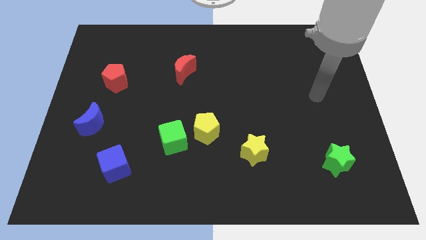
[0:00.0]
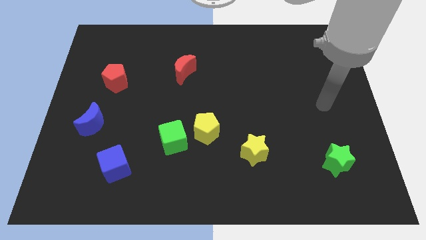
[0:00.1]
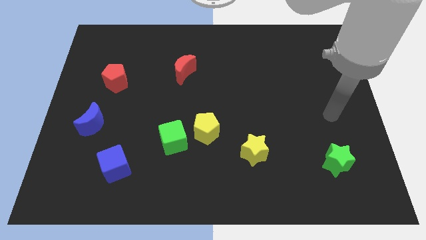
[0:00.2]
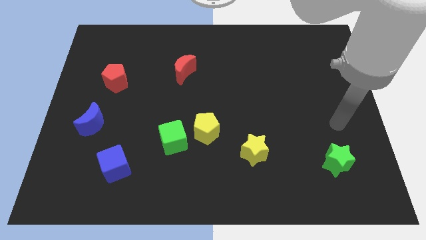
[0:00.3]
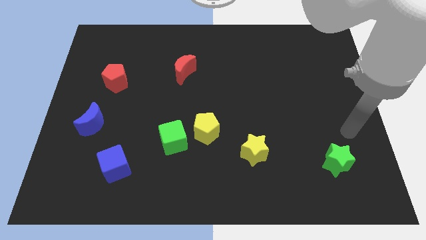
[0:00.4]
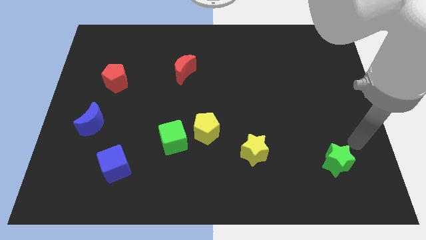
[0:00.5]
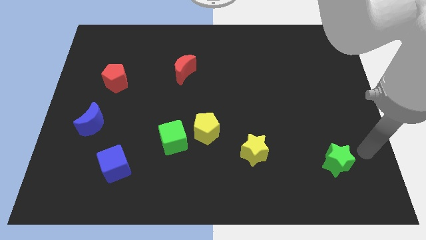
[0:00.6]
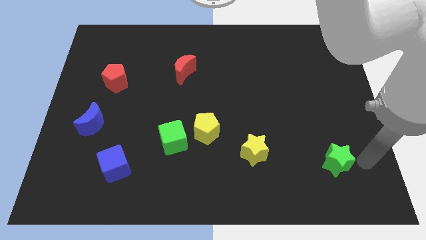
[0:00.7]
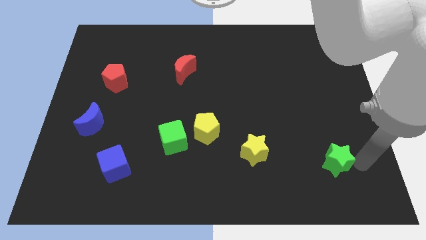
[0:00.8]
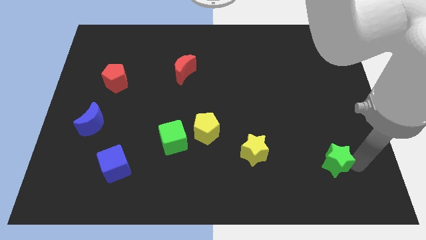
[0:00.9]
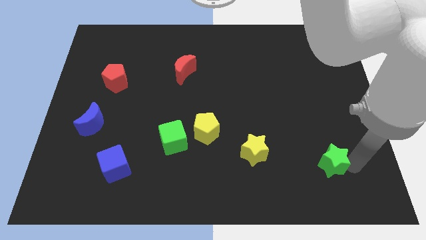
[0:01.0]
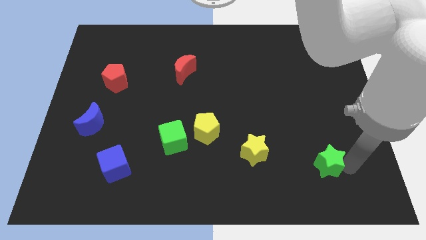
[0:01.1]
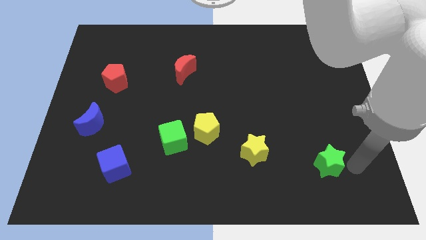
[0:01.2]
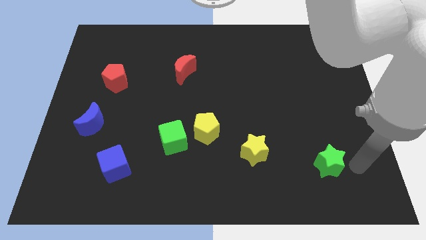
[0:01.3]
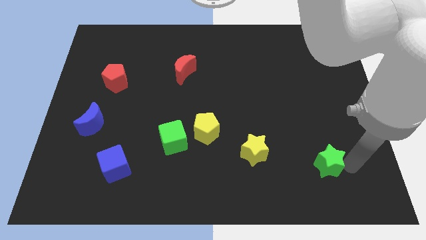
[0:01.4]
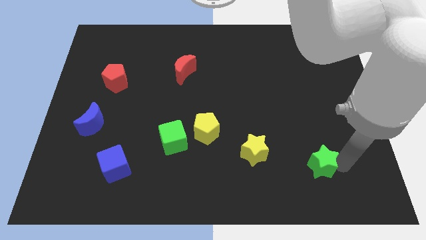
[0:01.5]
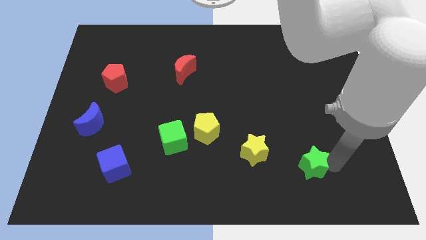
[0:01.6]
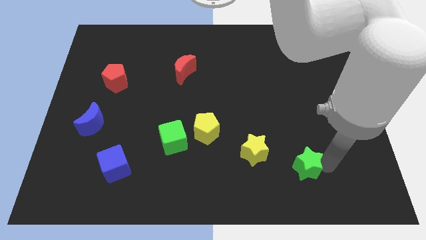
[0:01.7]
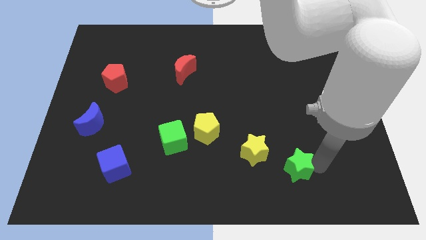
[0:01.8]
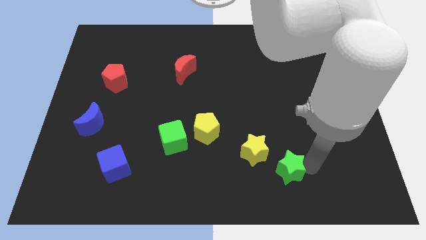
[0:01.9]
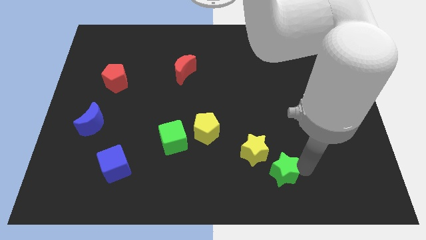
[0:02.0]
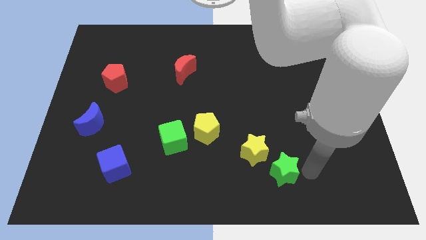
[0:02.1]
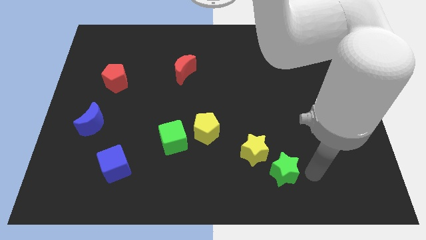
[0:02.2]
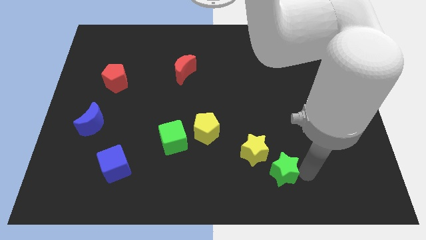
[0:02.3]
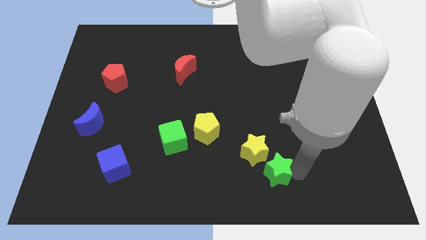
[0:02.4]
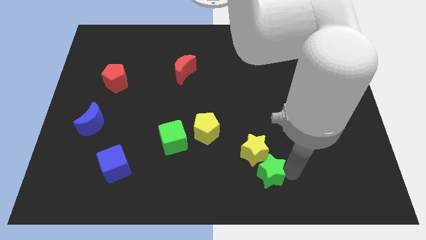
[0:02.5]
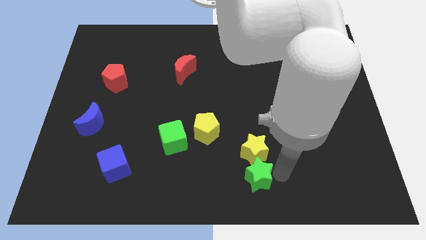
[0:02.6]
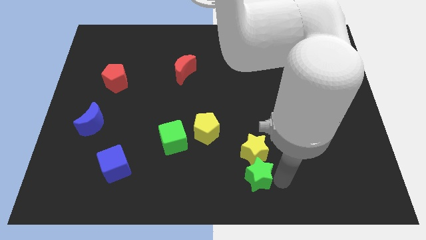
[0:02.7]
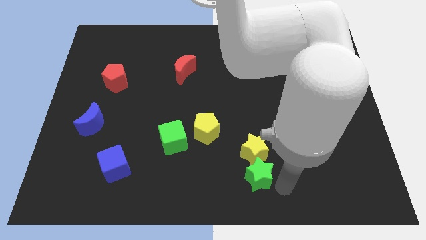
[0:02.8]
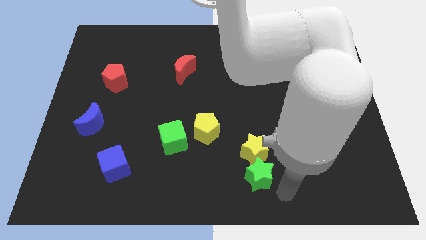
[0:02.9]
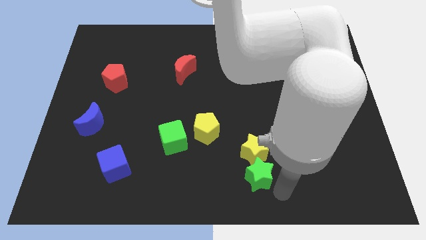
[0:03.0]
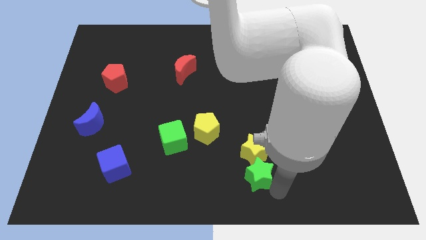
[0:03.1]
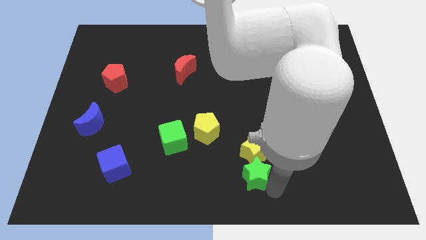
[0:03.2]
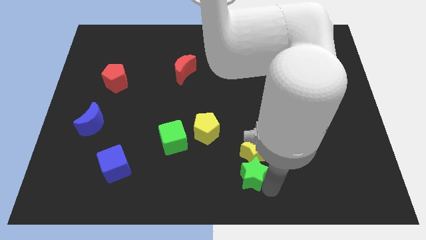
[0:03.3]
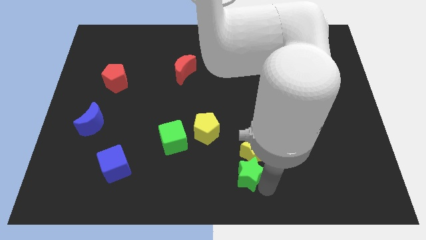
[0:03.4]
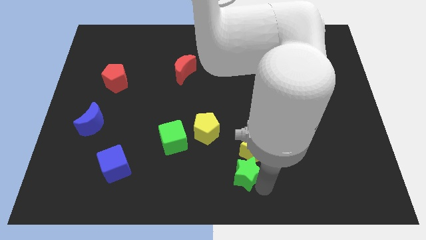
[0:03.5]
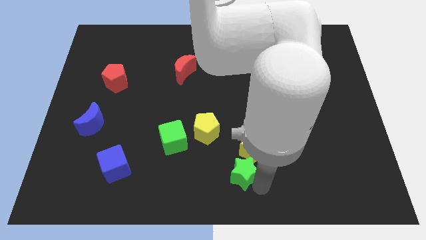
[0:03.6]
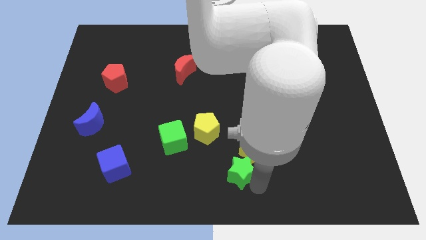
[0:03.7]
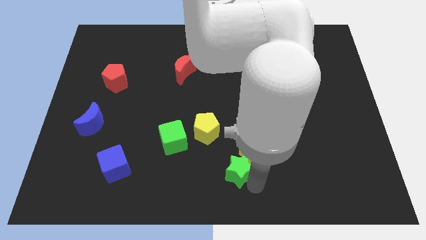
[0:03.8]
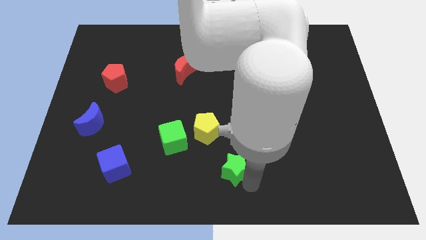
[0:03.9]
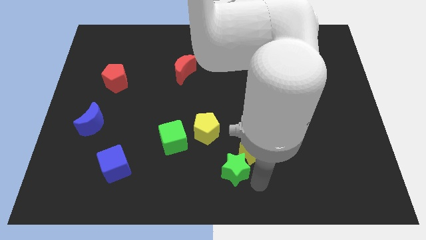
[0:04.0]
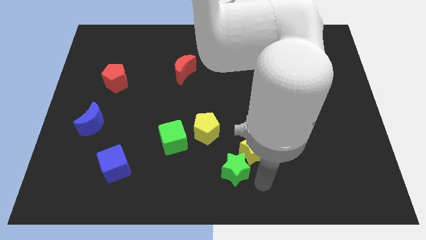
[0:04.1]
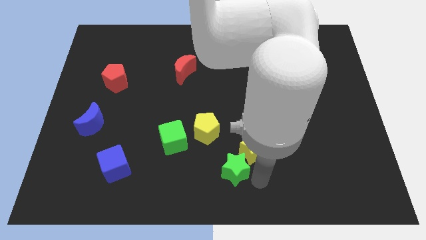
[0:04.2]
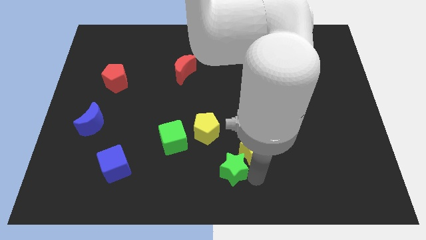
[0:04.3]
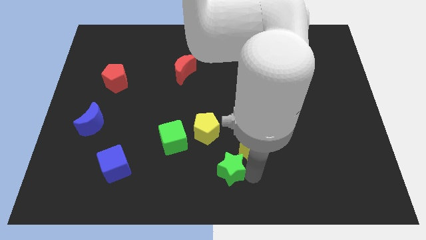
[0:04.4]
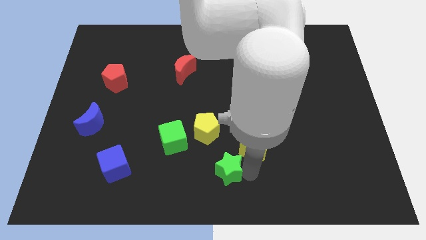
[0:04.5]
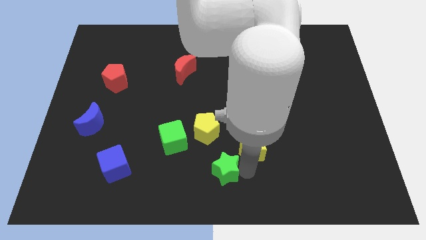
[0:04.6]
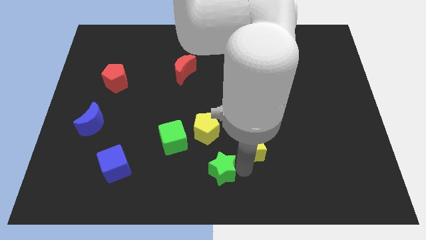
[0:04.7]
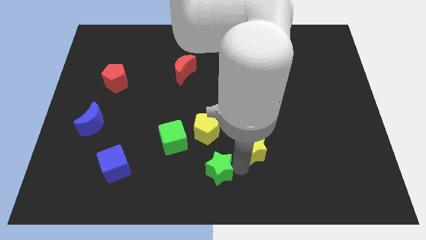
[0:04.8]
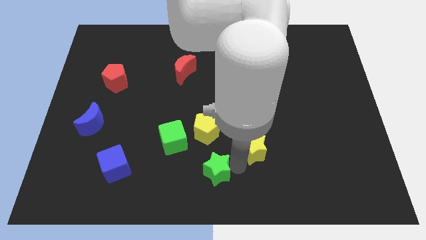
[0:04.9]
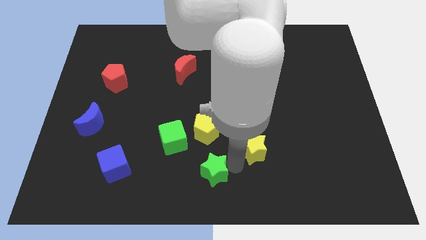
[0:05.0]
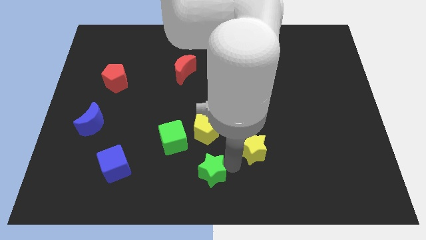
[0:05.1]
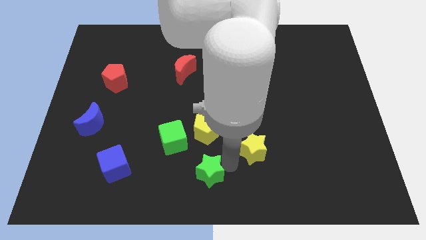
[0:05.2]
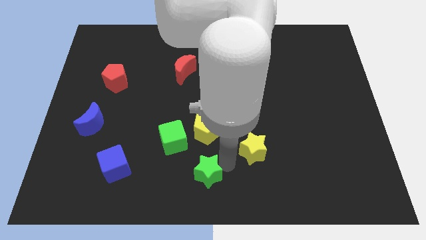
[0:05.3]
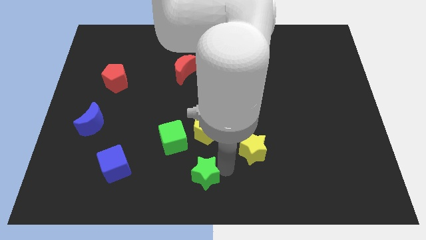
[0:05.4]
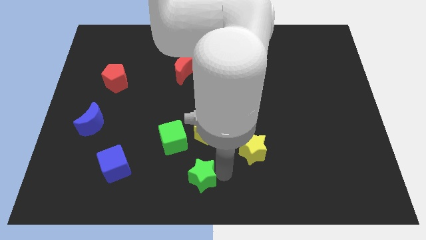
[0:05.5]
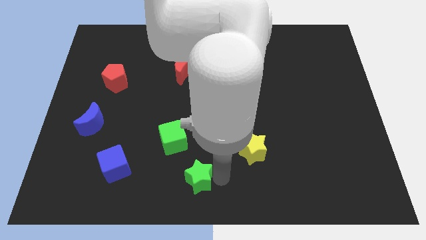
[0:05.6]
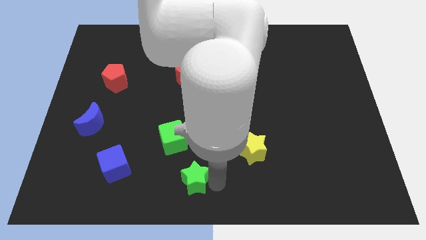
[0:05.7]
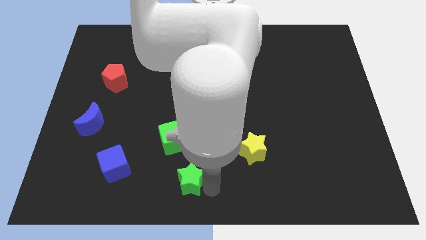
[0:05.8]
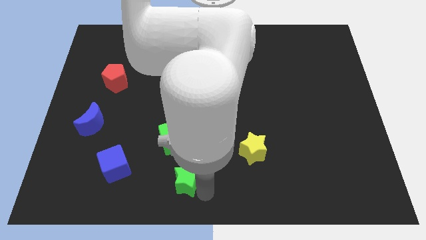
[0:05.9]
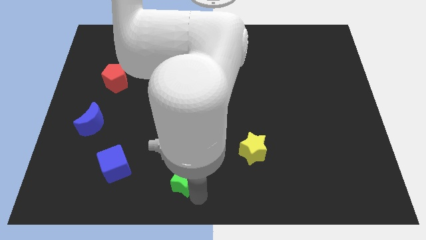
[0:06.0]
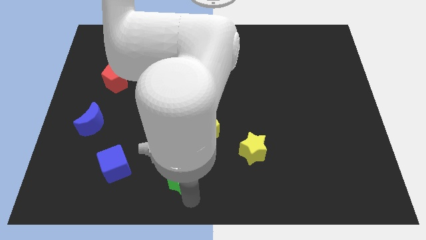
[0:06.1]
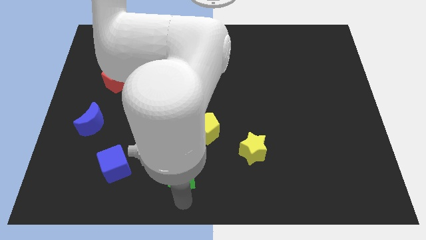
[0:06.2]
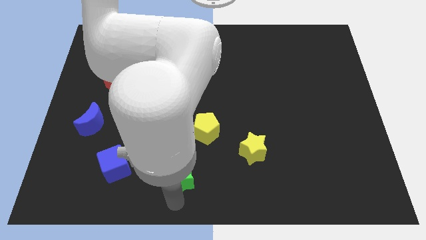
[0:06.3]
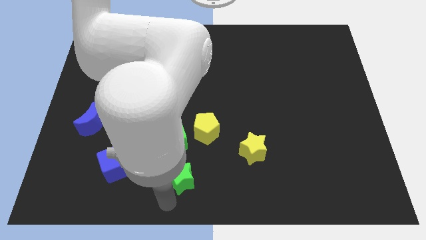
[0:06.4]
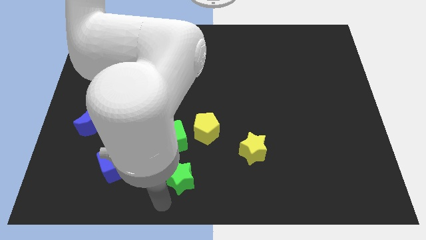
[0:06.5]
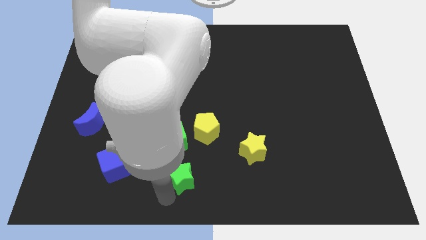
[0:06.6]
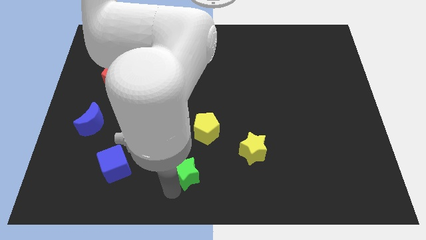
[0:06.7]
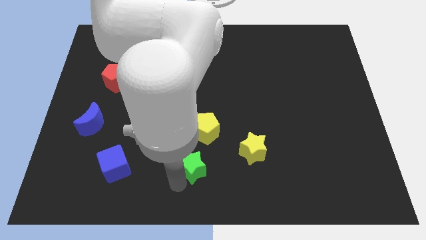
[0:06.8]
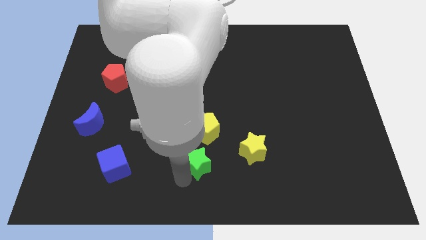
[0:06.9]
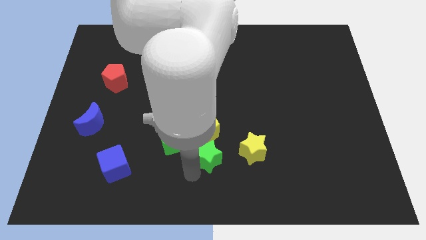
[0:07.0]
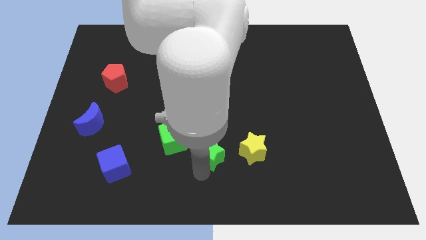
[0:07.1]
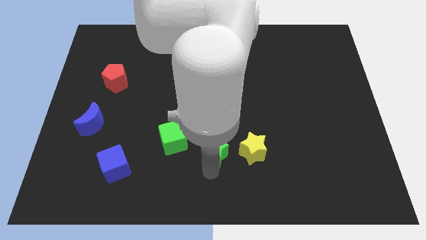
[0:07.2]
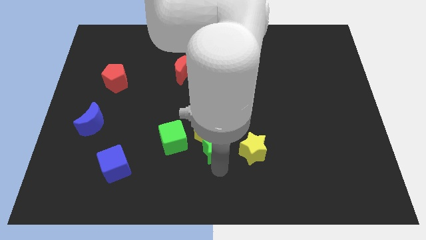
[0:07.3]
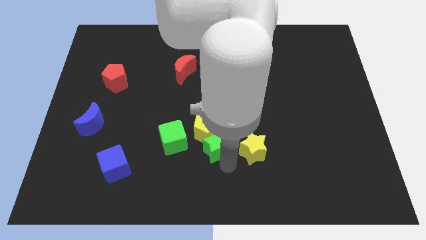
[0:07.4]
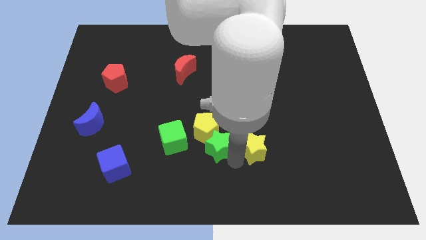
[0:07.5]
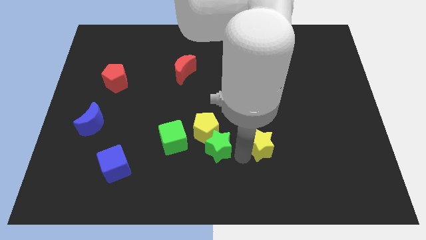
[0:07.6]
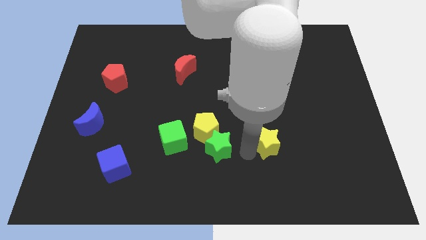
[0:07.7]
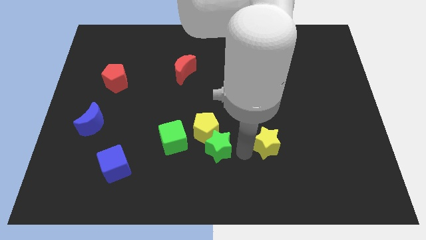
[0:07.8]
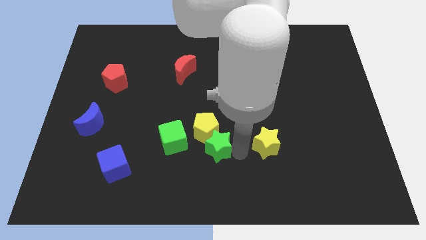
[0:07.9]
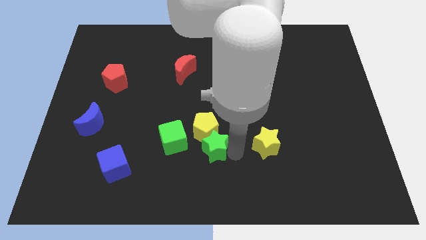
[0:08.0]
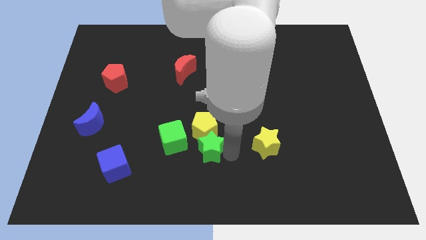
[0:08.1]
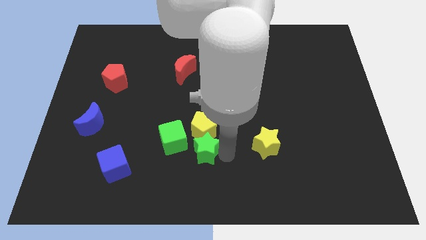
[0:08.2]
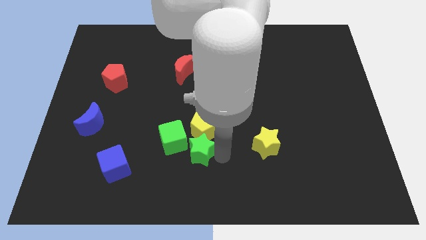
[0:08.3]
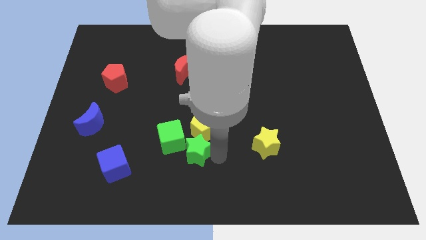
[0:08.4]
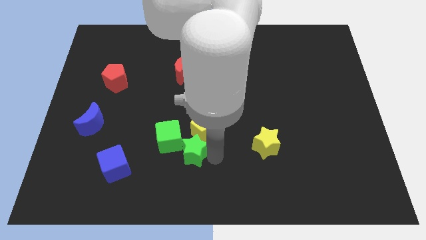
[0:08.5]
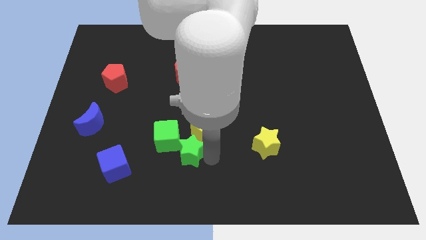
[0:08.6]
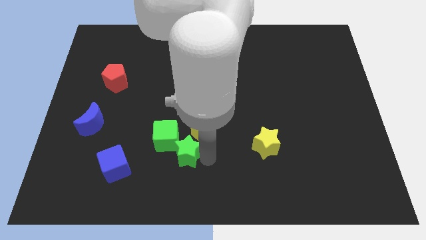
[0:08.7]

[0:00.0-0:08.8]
move the green star close to the green cube
